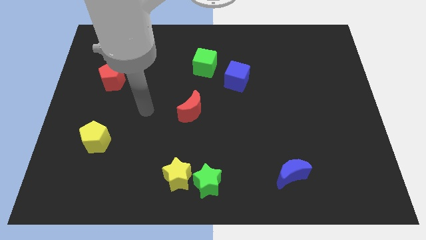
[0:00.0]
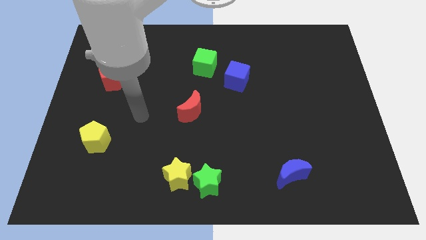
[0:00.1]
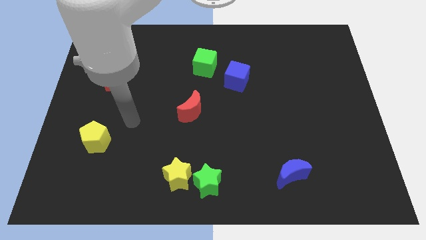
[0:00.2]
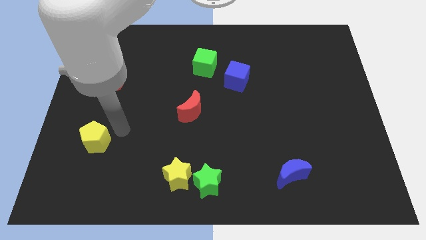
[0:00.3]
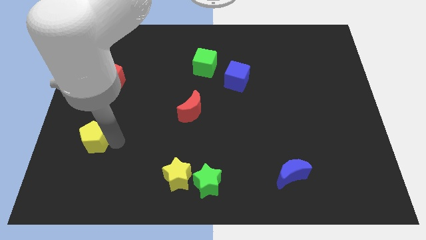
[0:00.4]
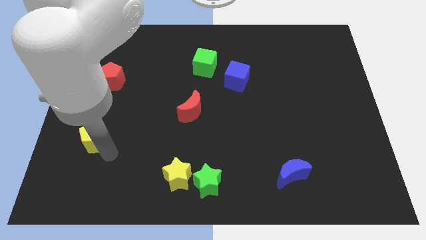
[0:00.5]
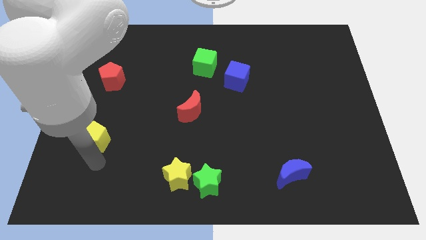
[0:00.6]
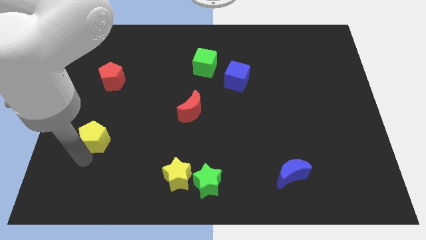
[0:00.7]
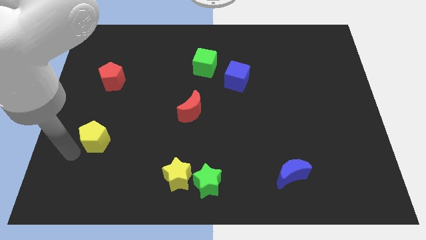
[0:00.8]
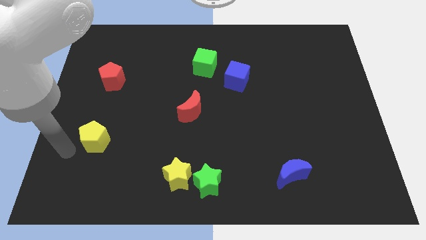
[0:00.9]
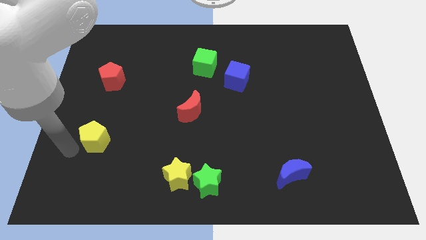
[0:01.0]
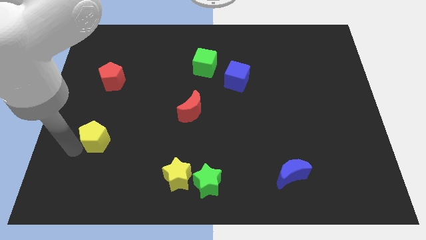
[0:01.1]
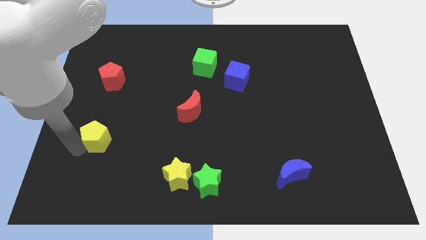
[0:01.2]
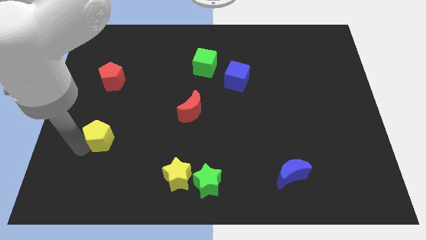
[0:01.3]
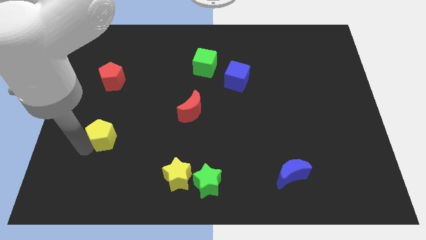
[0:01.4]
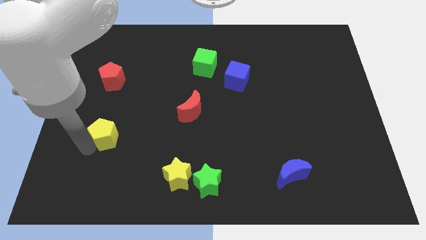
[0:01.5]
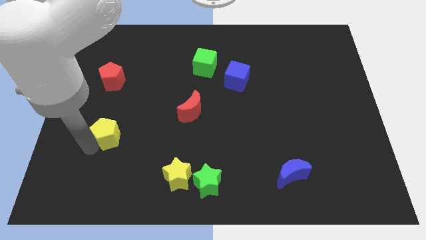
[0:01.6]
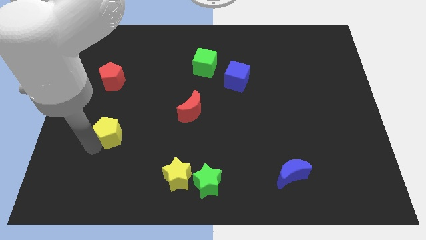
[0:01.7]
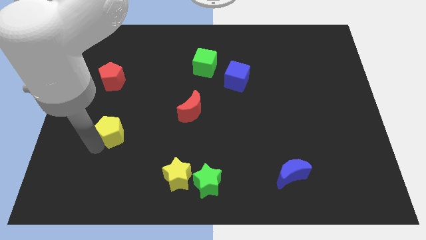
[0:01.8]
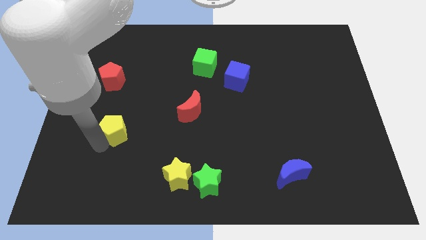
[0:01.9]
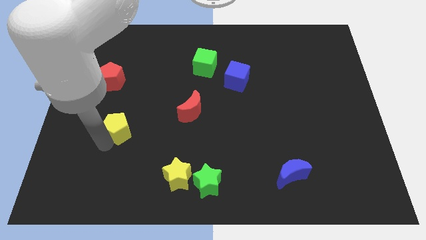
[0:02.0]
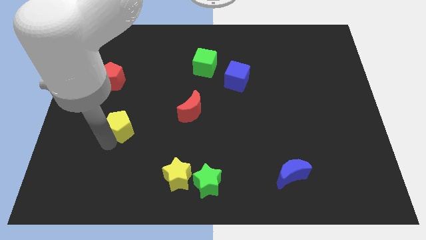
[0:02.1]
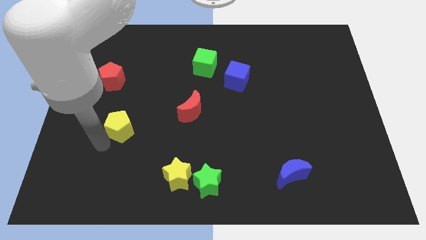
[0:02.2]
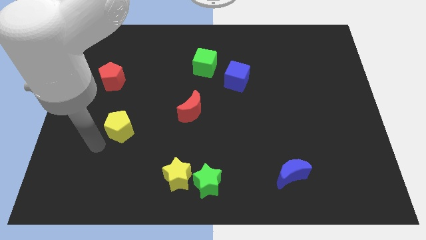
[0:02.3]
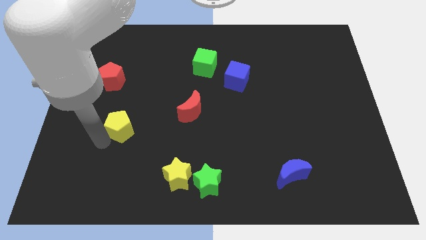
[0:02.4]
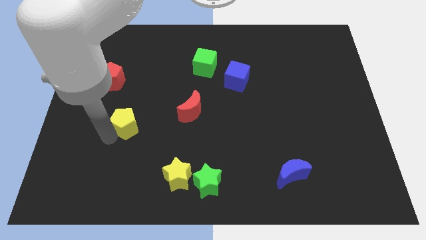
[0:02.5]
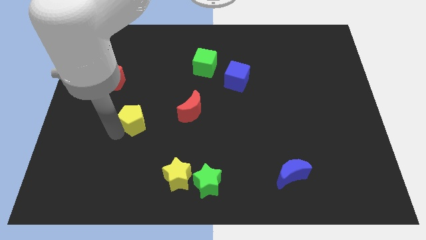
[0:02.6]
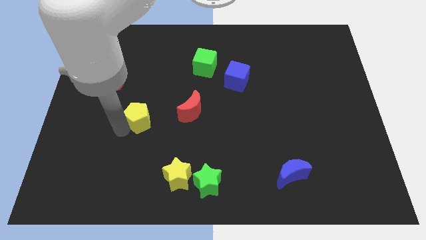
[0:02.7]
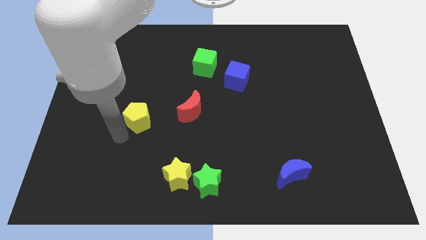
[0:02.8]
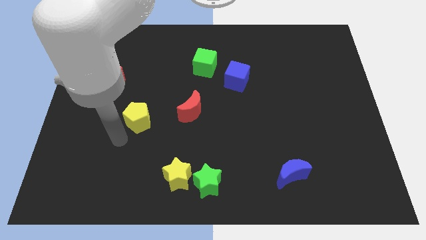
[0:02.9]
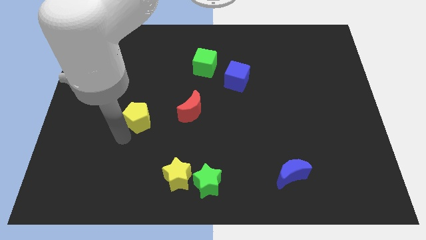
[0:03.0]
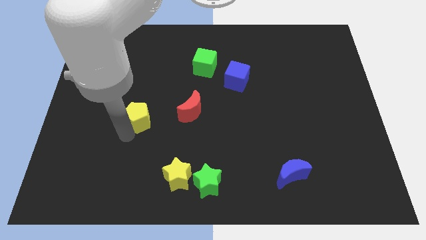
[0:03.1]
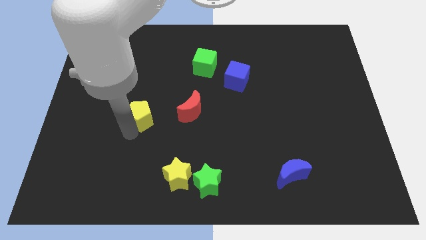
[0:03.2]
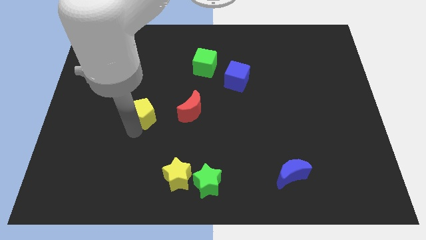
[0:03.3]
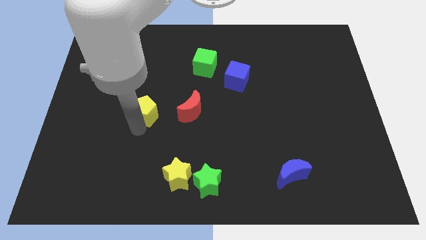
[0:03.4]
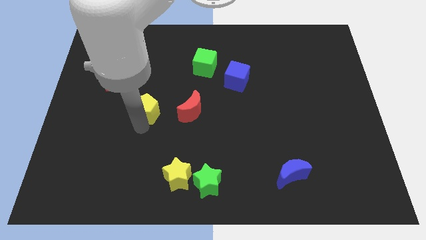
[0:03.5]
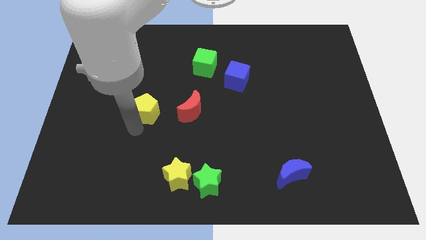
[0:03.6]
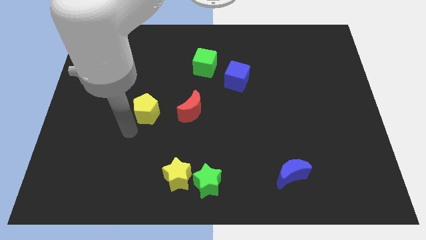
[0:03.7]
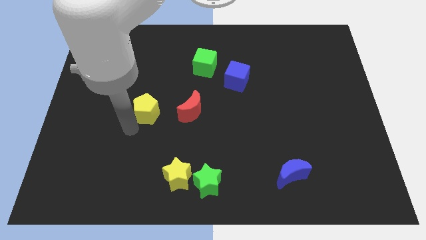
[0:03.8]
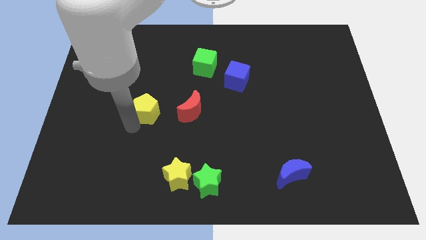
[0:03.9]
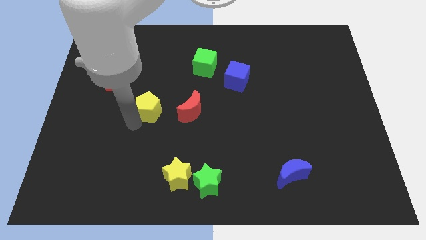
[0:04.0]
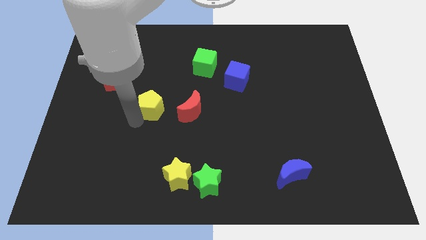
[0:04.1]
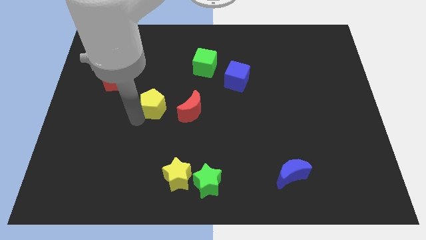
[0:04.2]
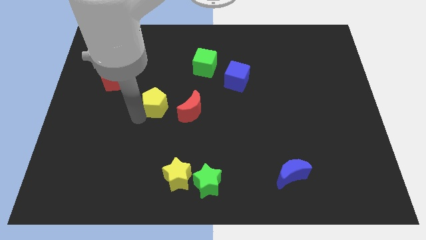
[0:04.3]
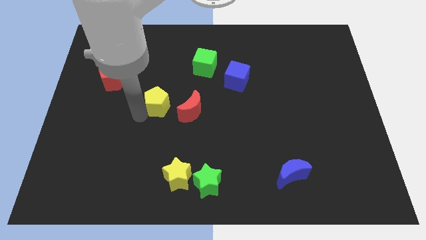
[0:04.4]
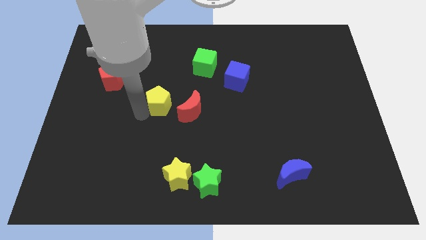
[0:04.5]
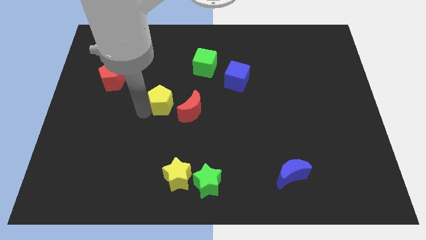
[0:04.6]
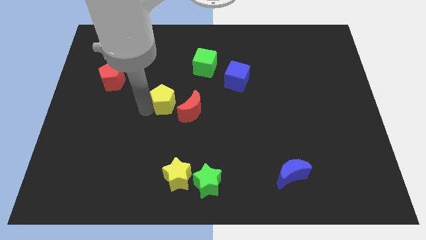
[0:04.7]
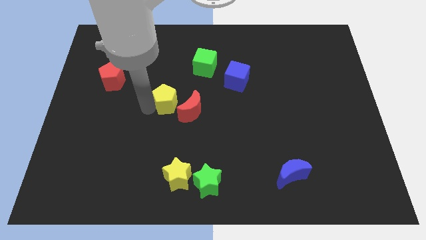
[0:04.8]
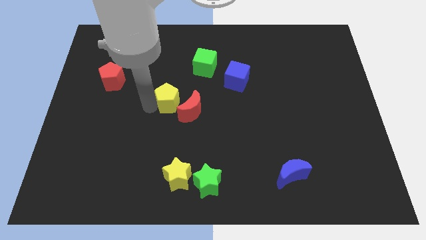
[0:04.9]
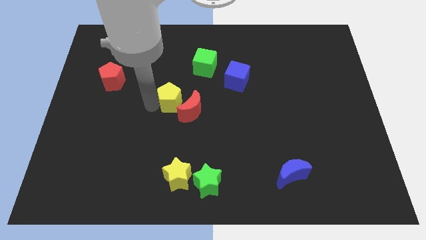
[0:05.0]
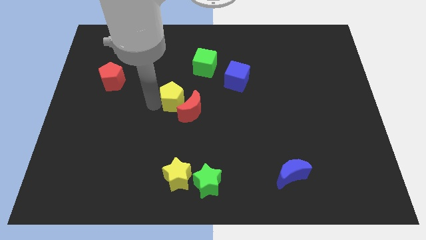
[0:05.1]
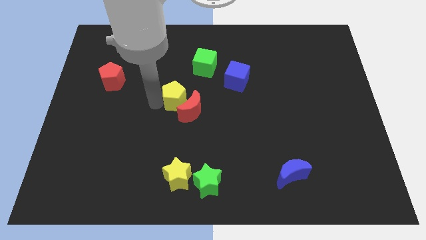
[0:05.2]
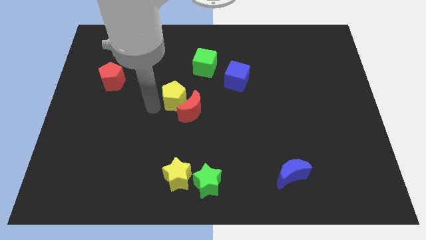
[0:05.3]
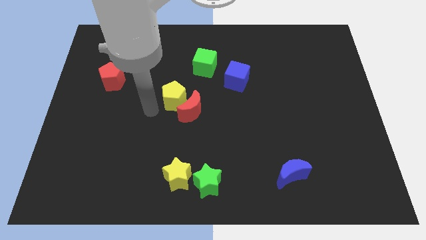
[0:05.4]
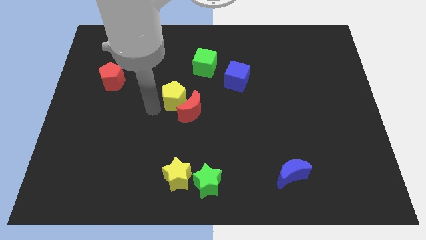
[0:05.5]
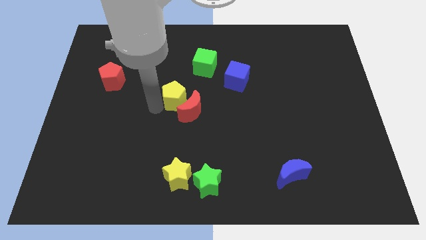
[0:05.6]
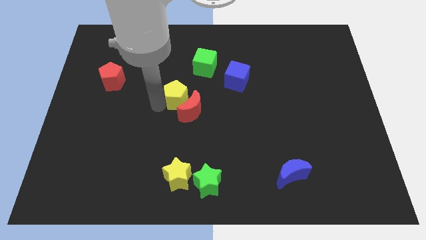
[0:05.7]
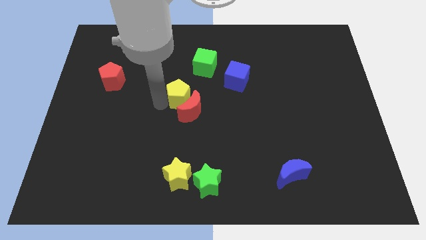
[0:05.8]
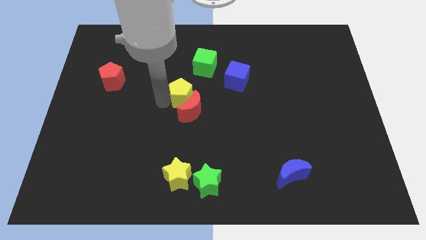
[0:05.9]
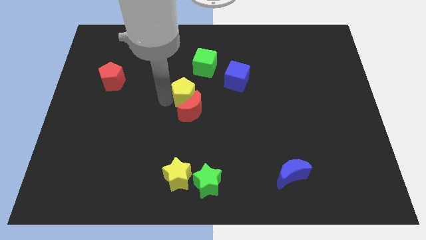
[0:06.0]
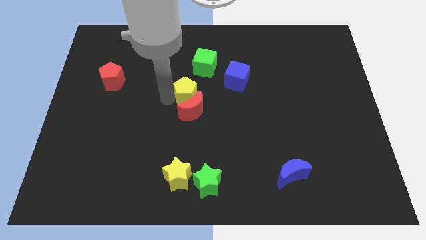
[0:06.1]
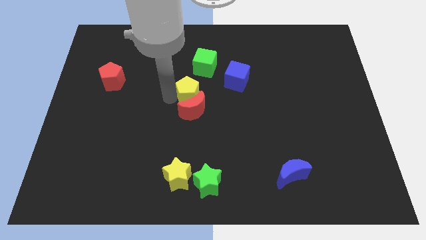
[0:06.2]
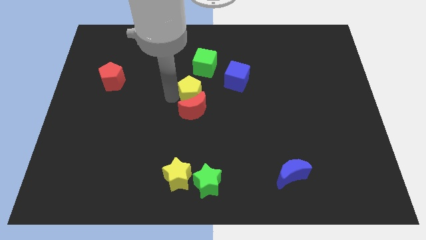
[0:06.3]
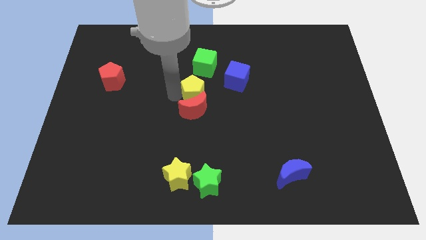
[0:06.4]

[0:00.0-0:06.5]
slide the yellow pentagon to the bottom left side of the blue cube

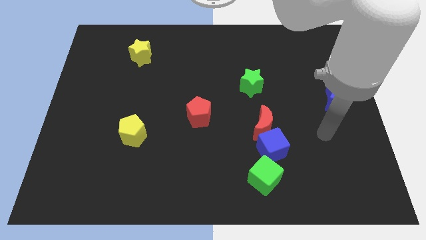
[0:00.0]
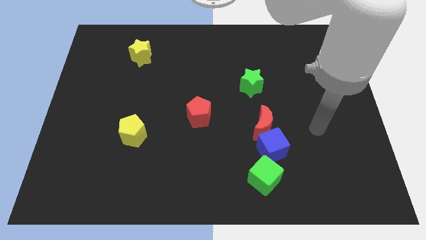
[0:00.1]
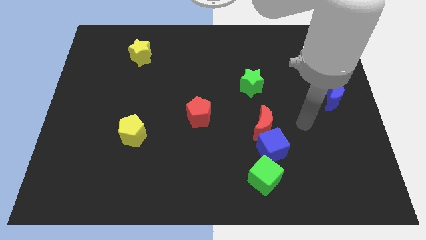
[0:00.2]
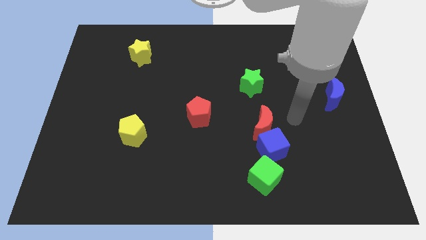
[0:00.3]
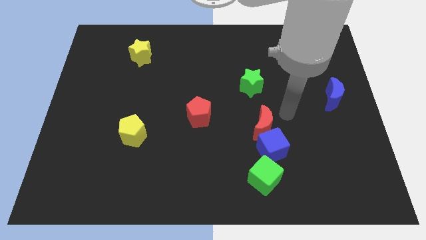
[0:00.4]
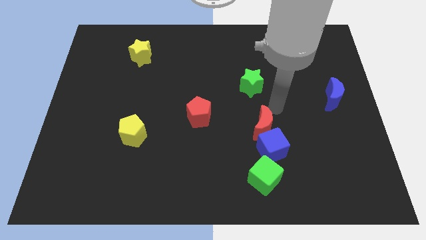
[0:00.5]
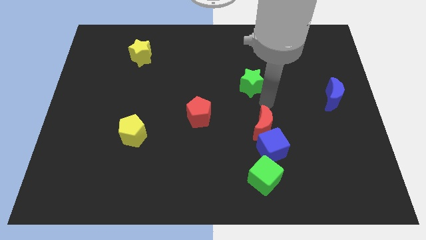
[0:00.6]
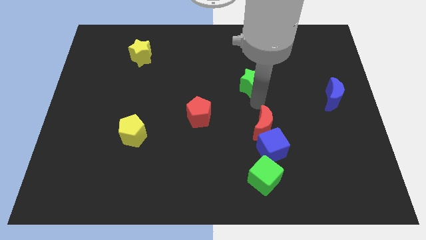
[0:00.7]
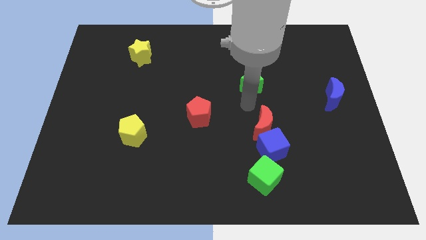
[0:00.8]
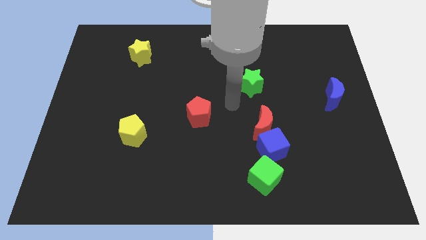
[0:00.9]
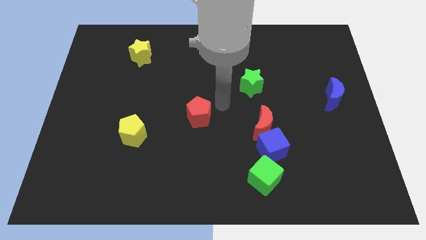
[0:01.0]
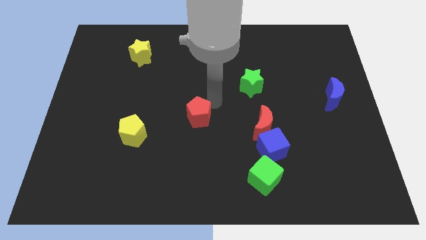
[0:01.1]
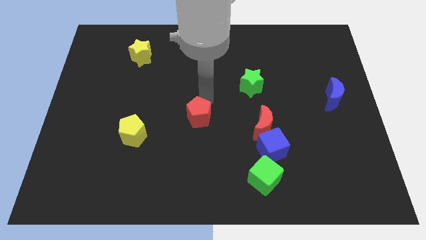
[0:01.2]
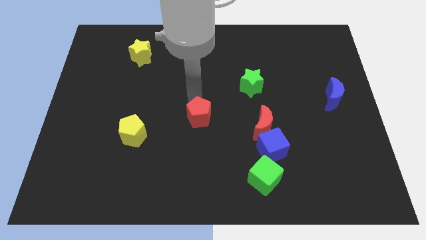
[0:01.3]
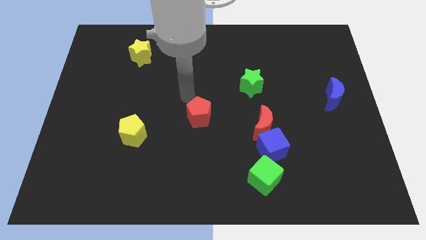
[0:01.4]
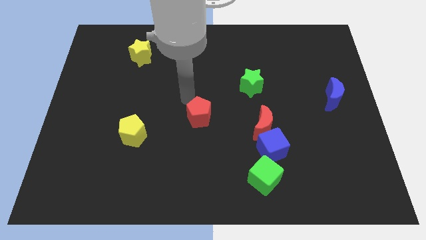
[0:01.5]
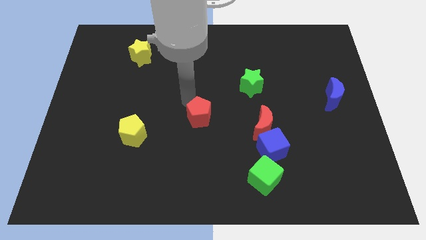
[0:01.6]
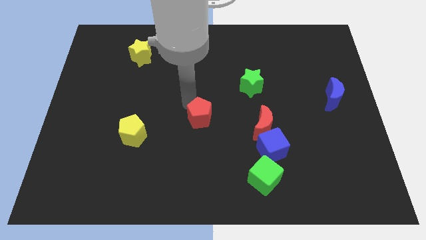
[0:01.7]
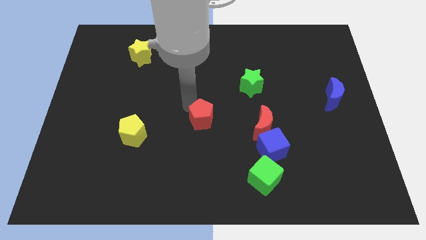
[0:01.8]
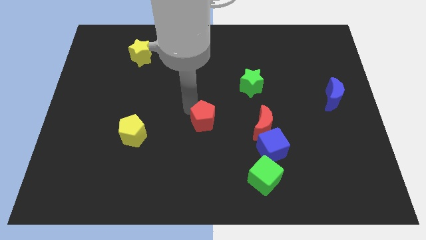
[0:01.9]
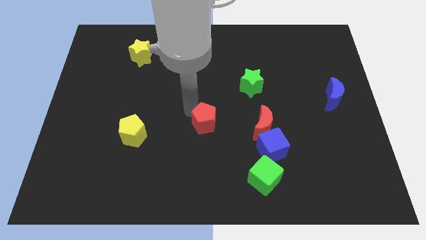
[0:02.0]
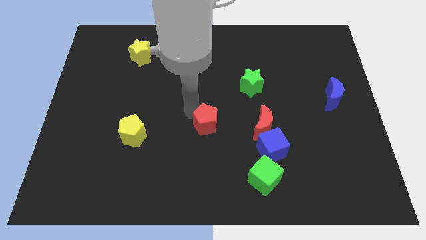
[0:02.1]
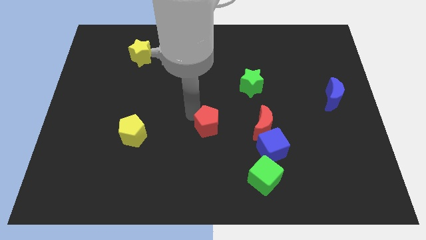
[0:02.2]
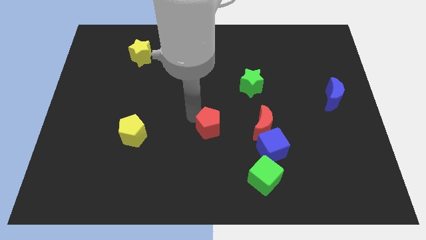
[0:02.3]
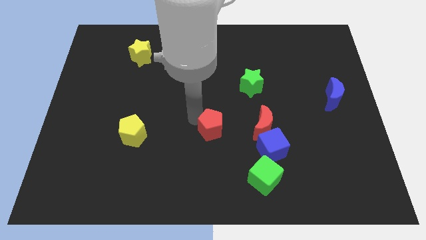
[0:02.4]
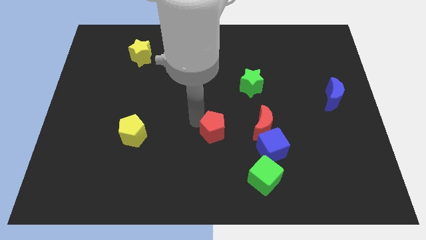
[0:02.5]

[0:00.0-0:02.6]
move the red pentagon to the left side of the blue cube
